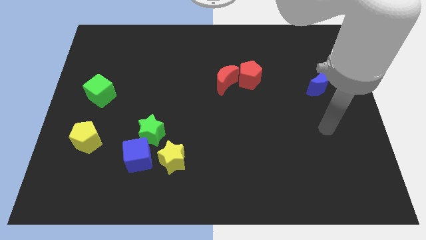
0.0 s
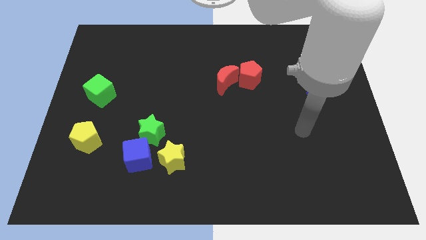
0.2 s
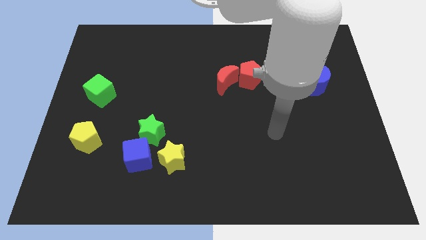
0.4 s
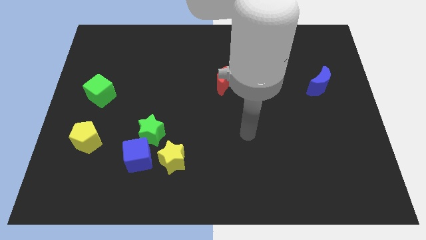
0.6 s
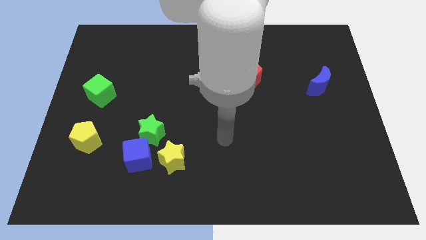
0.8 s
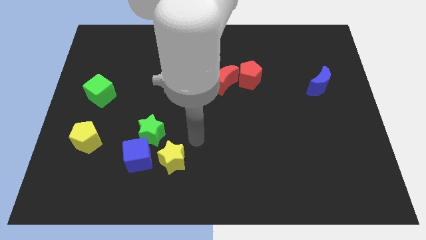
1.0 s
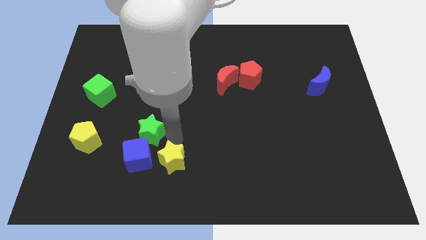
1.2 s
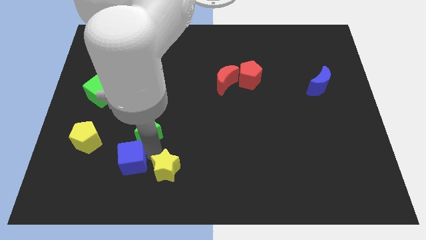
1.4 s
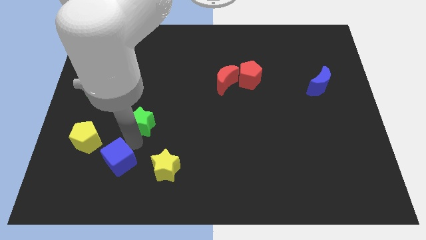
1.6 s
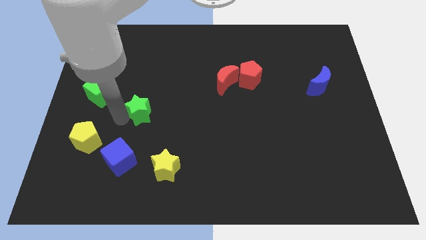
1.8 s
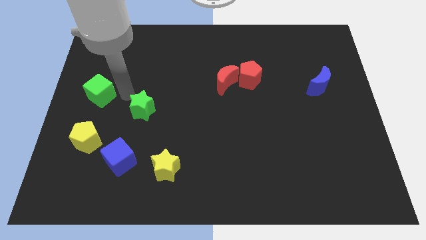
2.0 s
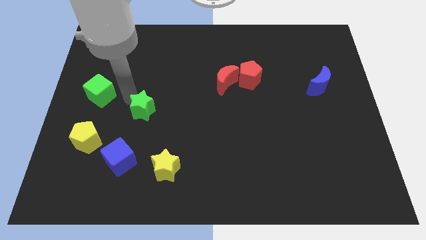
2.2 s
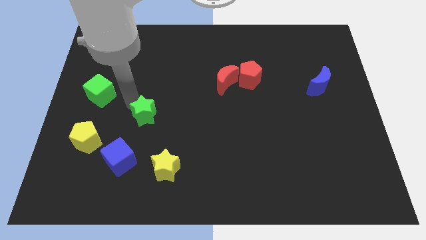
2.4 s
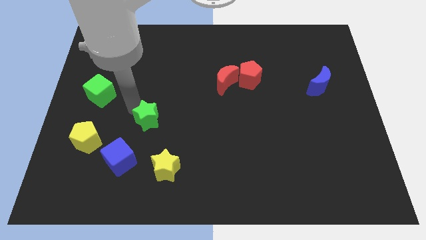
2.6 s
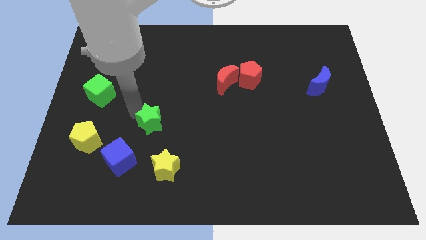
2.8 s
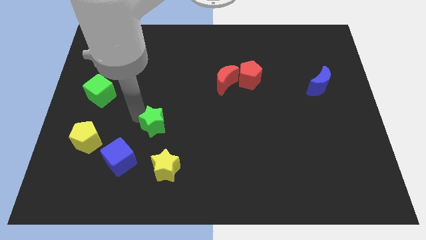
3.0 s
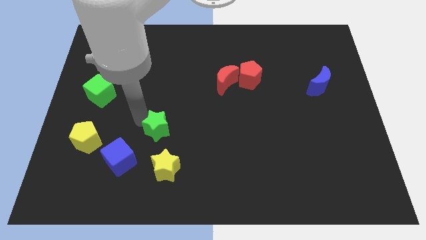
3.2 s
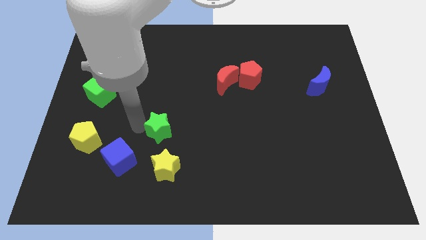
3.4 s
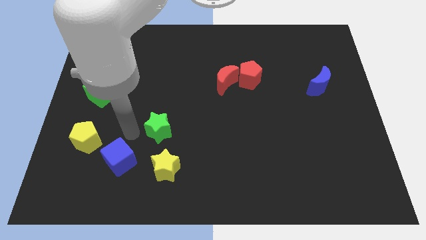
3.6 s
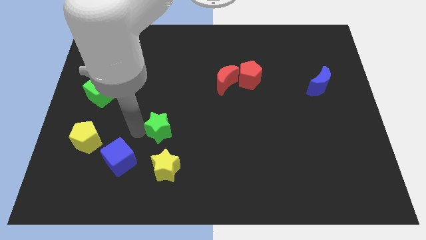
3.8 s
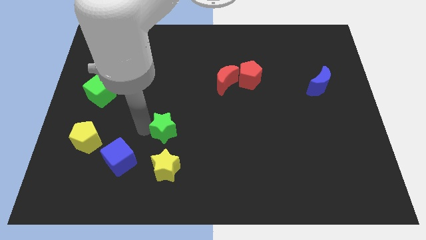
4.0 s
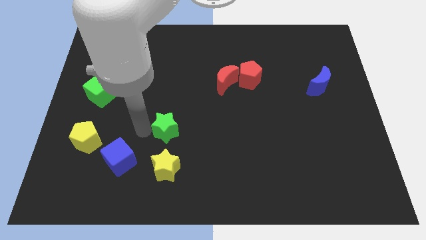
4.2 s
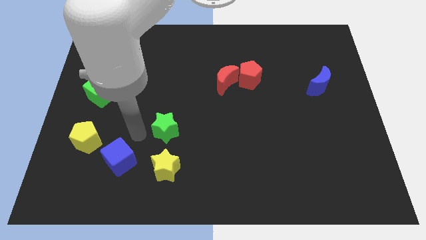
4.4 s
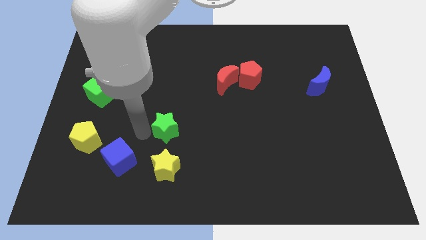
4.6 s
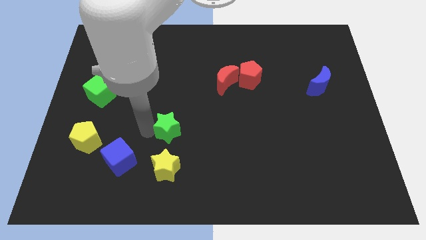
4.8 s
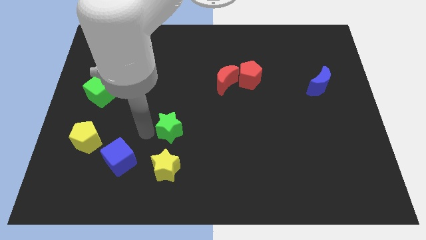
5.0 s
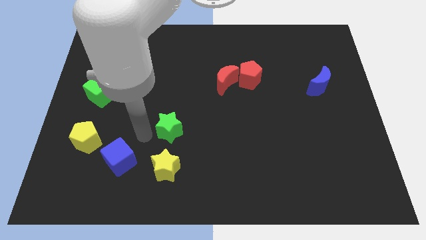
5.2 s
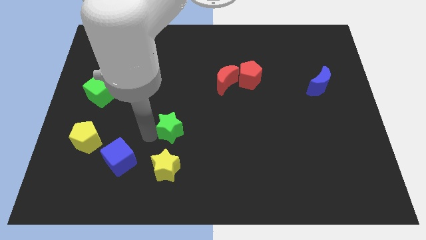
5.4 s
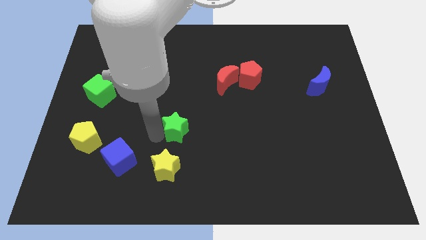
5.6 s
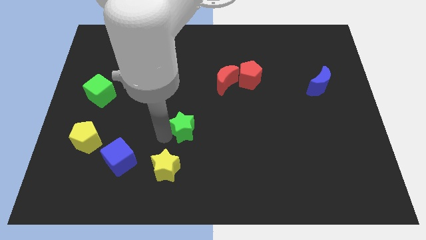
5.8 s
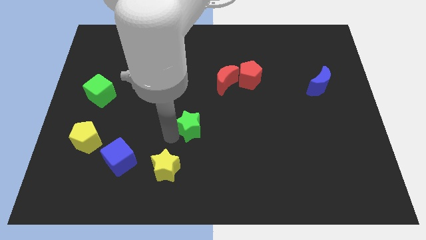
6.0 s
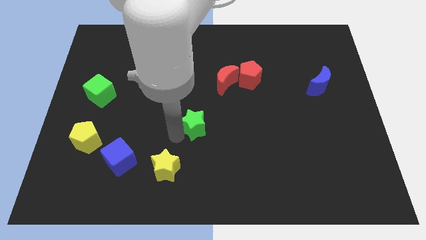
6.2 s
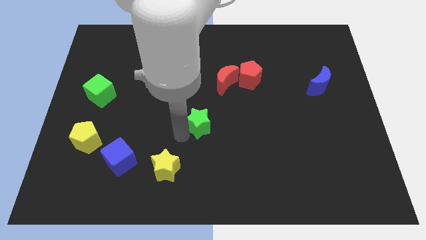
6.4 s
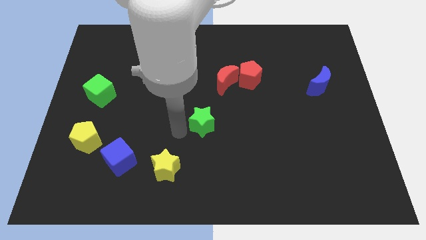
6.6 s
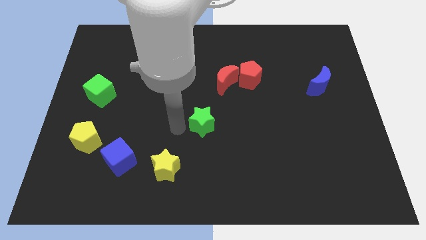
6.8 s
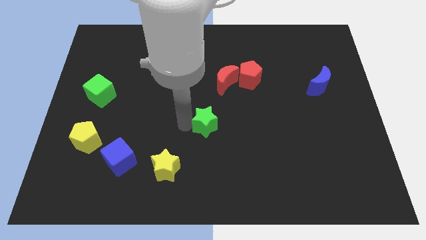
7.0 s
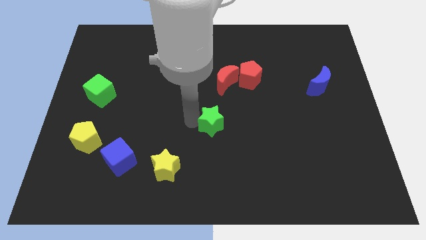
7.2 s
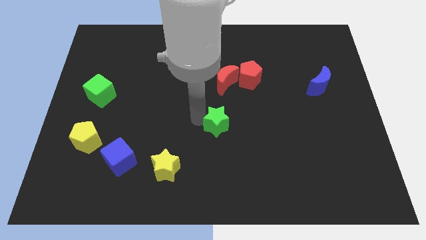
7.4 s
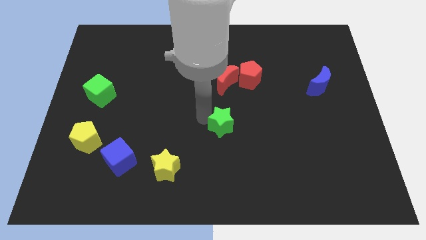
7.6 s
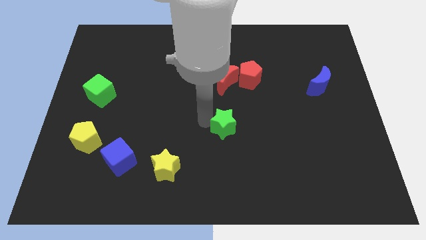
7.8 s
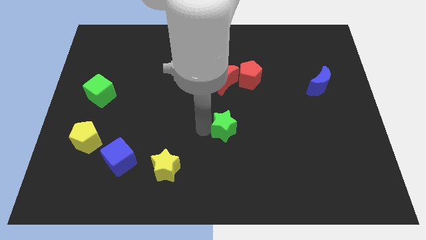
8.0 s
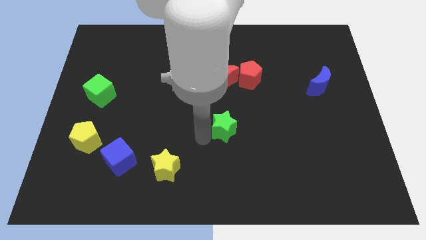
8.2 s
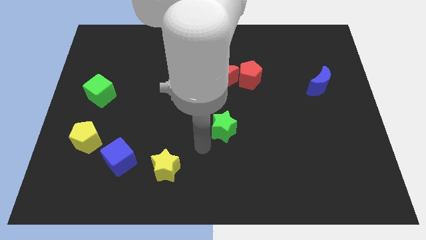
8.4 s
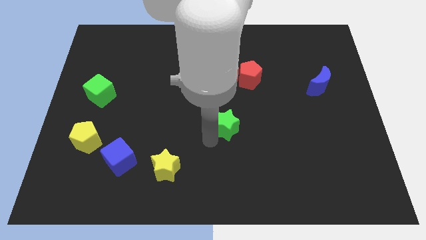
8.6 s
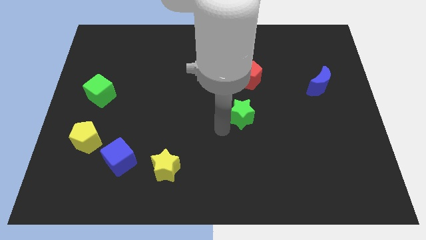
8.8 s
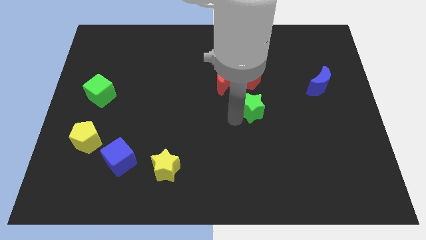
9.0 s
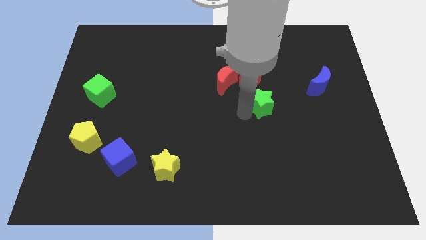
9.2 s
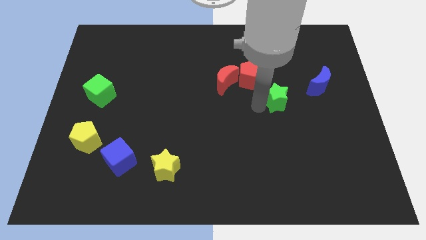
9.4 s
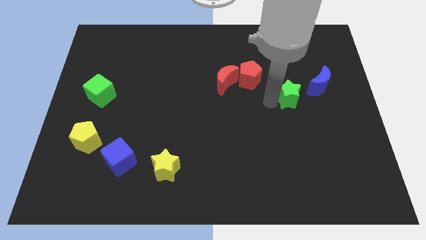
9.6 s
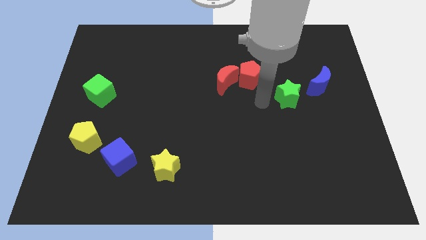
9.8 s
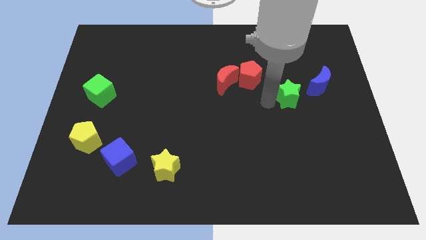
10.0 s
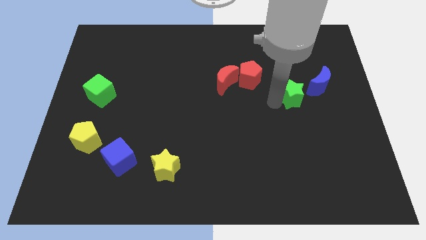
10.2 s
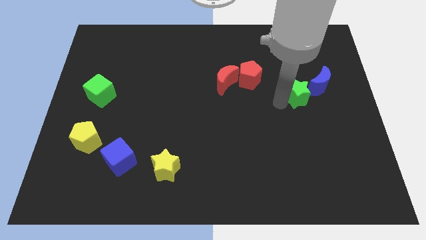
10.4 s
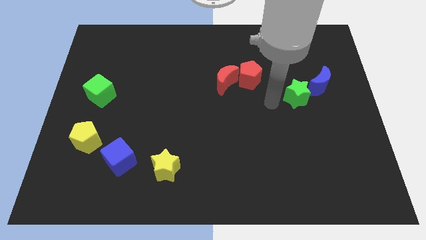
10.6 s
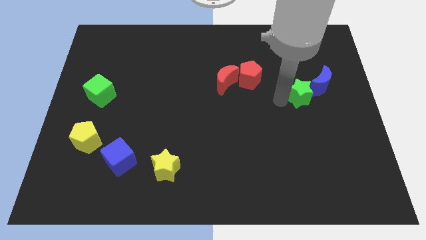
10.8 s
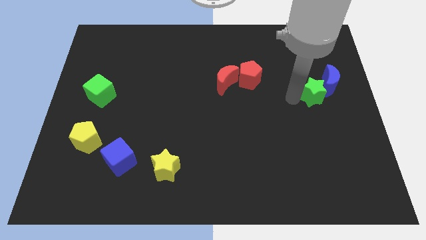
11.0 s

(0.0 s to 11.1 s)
push the green star to the blue moon

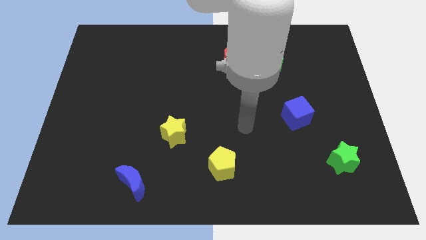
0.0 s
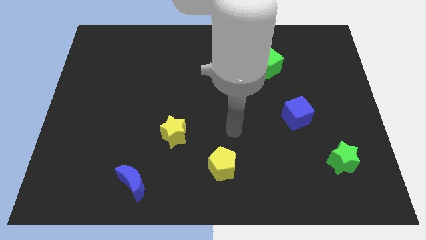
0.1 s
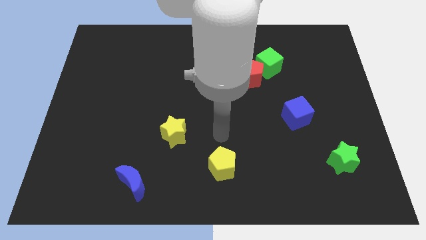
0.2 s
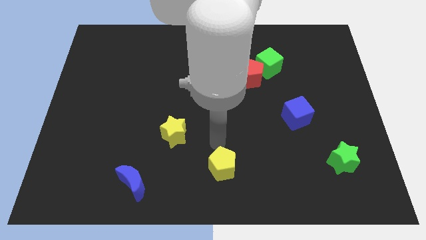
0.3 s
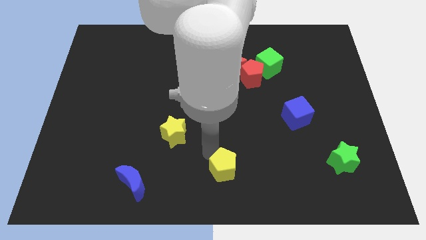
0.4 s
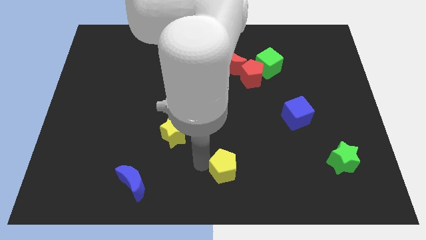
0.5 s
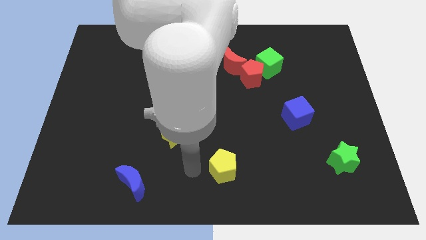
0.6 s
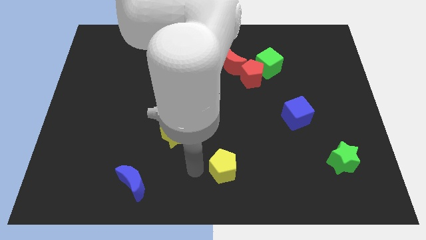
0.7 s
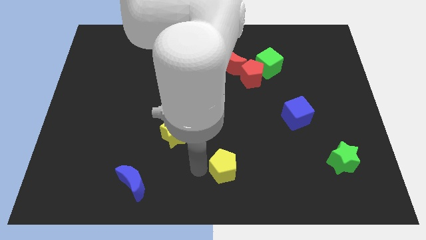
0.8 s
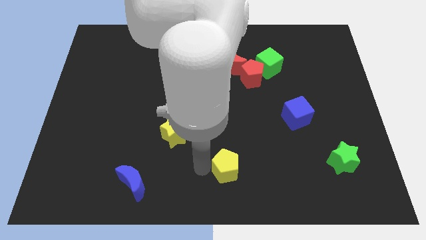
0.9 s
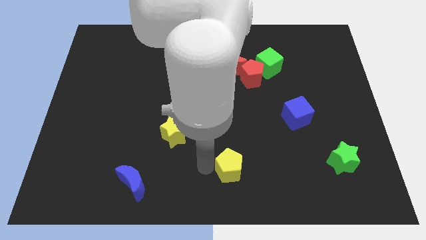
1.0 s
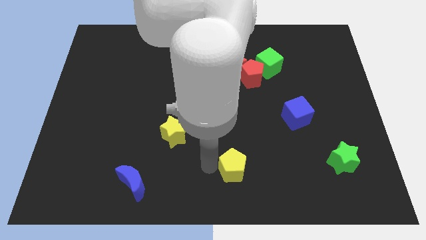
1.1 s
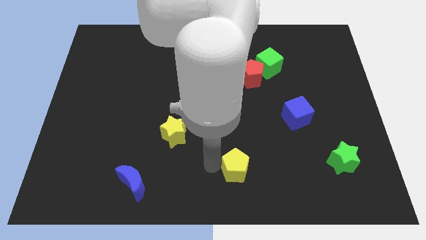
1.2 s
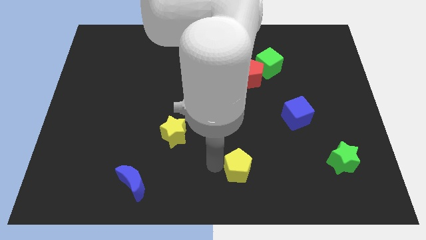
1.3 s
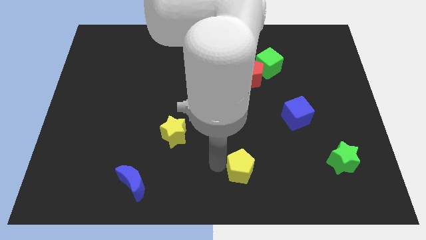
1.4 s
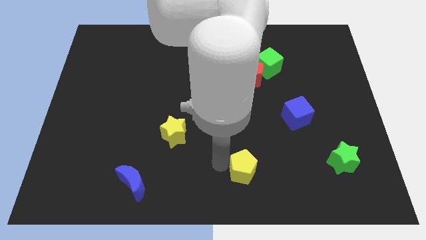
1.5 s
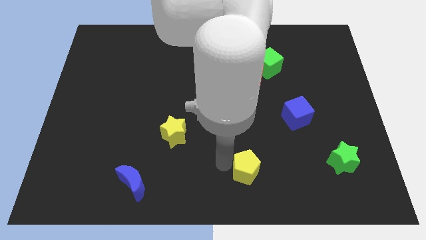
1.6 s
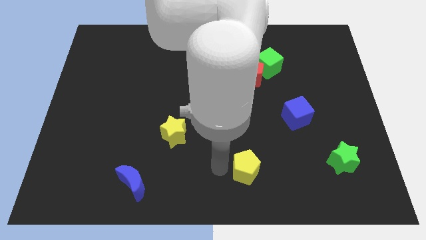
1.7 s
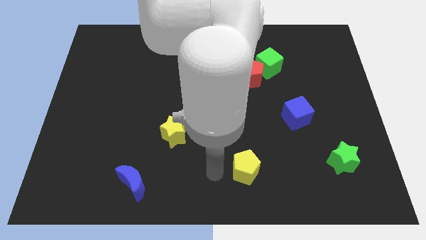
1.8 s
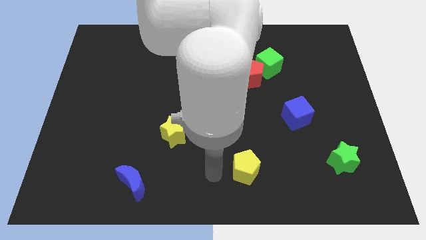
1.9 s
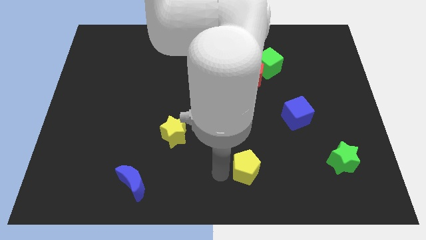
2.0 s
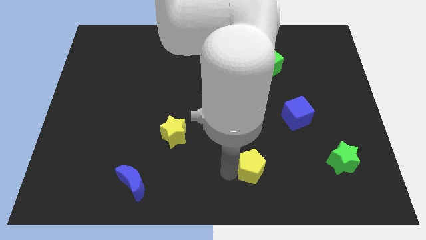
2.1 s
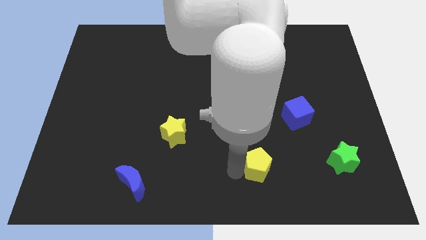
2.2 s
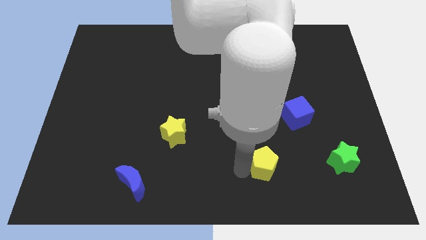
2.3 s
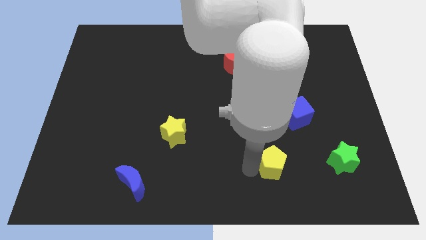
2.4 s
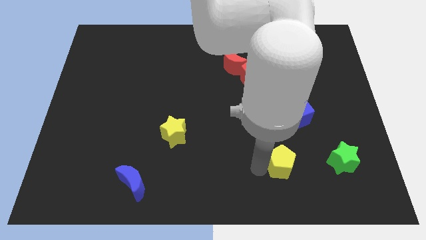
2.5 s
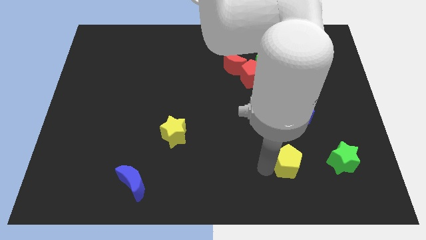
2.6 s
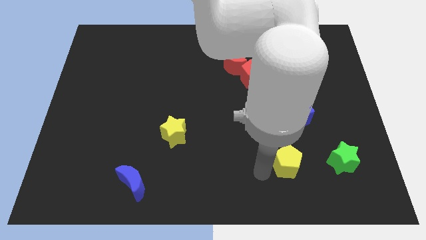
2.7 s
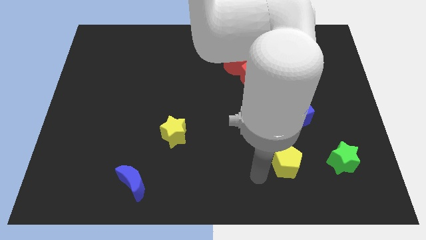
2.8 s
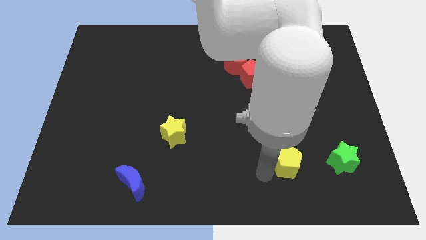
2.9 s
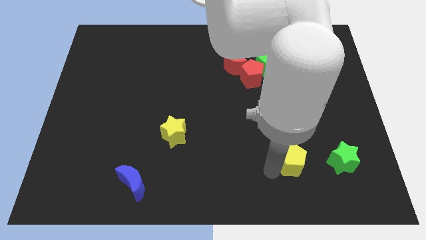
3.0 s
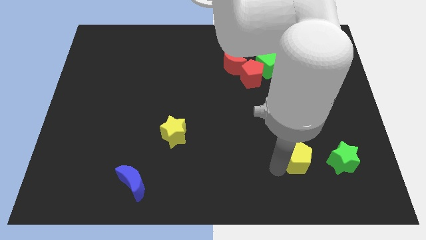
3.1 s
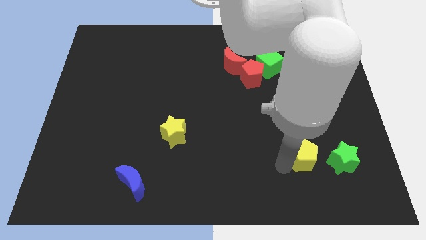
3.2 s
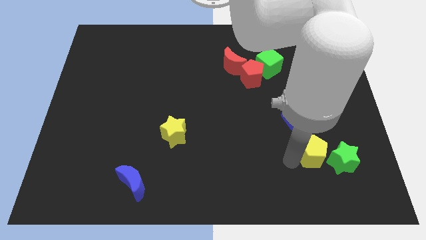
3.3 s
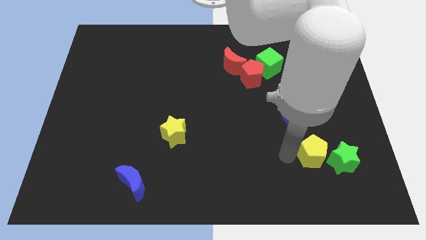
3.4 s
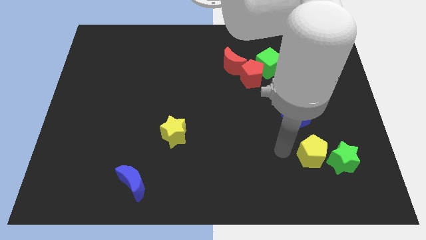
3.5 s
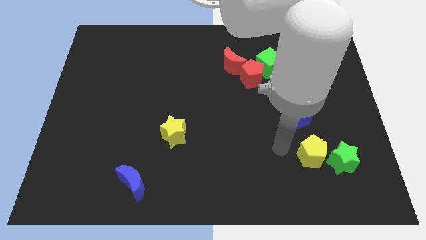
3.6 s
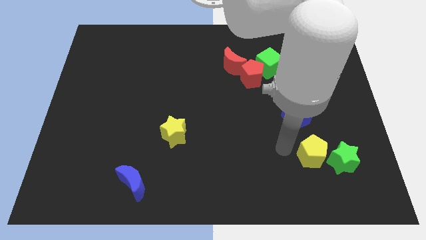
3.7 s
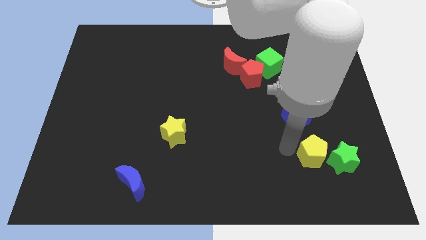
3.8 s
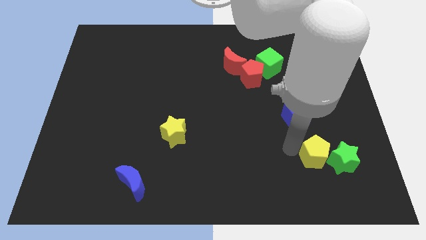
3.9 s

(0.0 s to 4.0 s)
push the yellow pentagon close to the green star
